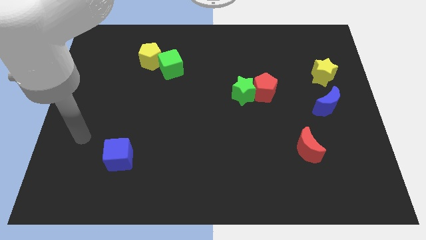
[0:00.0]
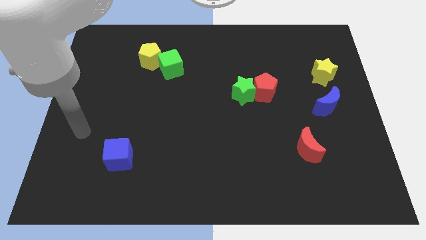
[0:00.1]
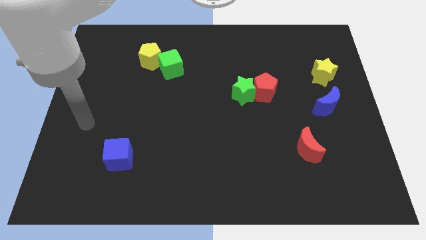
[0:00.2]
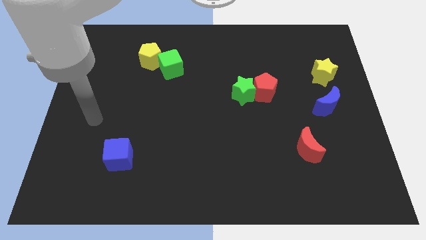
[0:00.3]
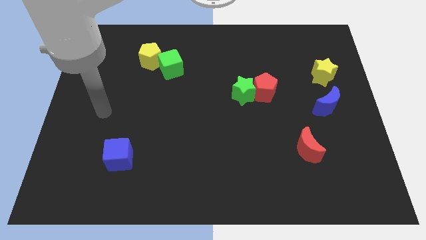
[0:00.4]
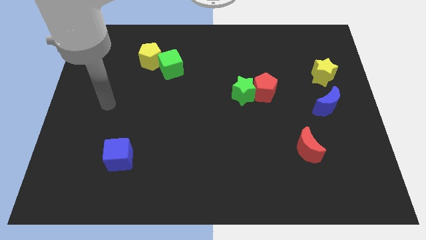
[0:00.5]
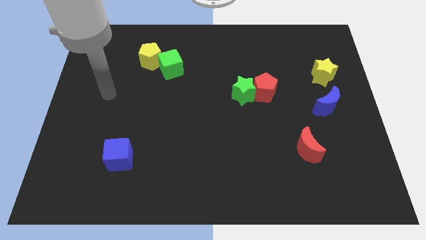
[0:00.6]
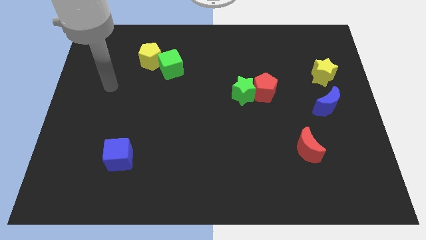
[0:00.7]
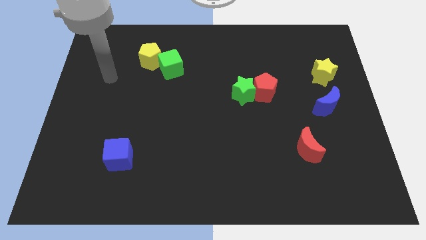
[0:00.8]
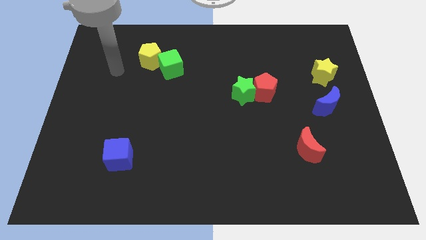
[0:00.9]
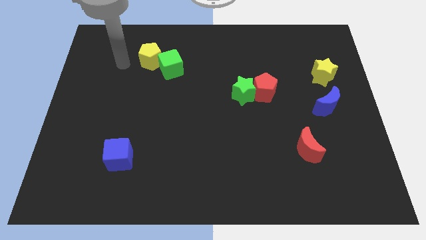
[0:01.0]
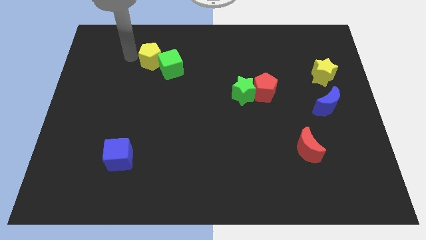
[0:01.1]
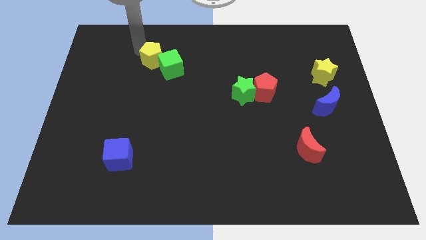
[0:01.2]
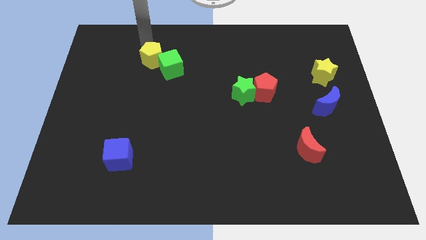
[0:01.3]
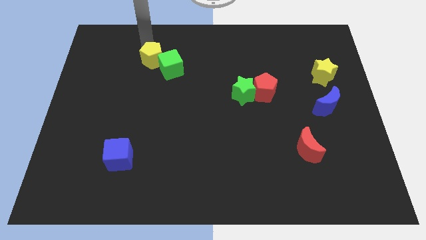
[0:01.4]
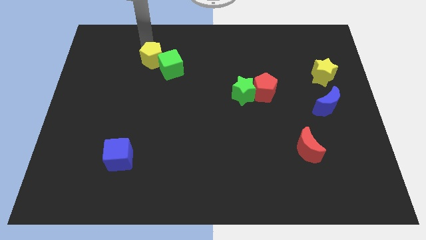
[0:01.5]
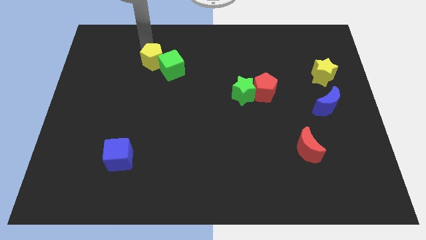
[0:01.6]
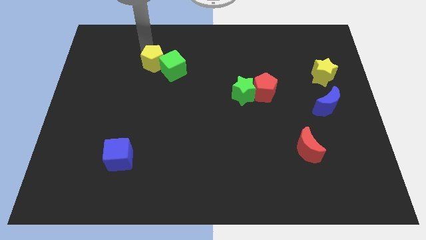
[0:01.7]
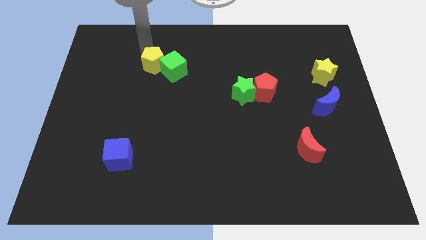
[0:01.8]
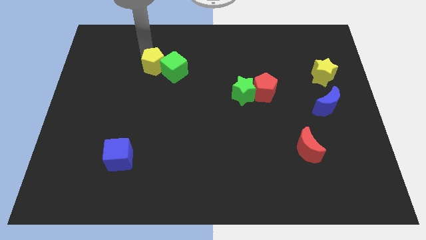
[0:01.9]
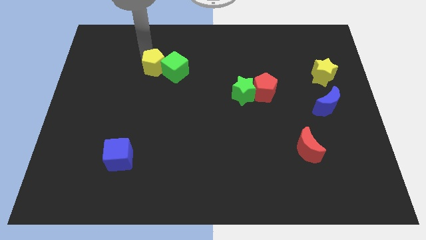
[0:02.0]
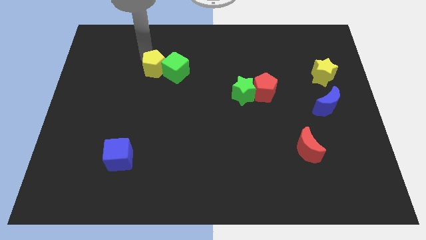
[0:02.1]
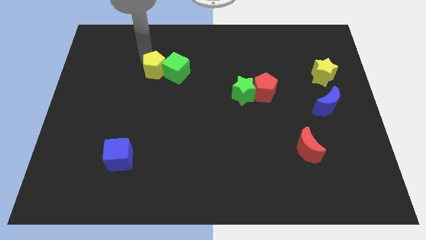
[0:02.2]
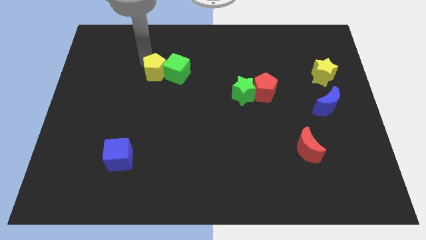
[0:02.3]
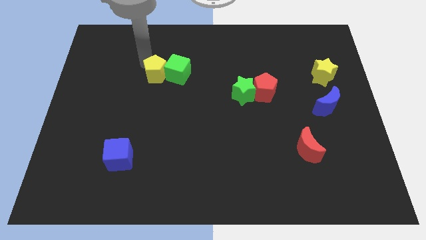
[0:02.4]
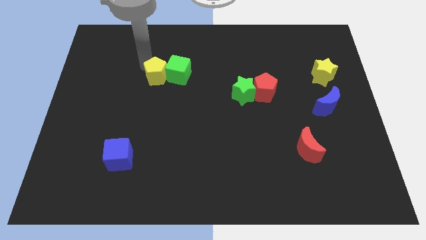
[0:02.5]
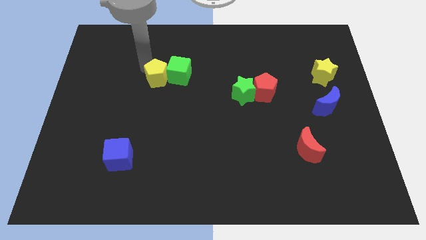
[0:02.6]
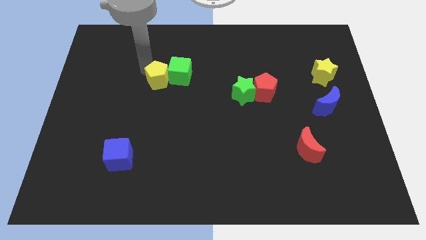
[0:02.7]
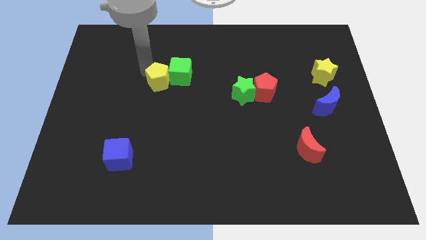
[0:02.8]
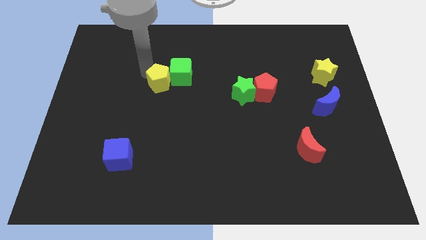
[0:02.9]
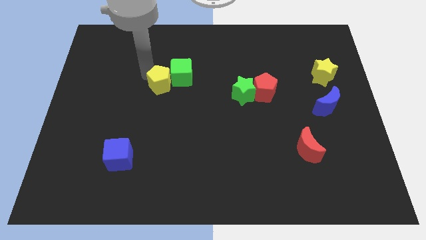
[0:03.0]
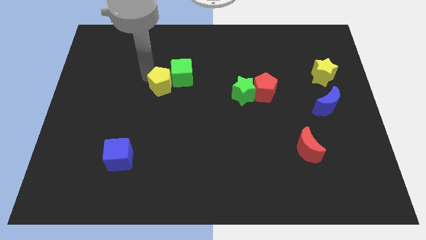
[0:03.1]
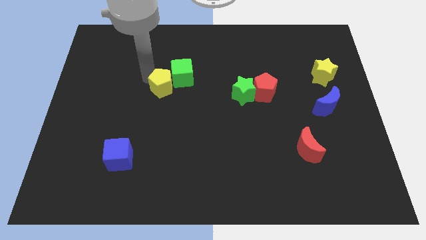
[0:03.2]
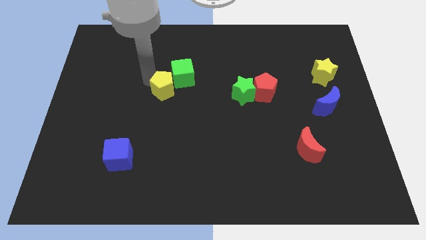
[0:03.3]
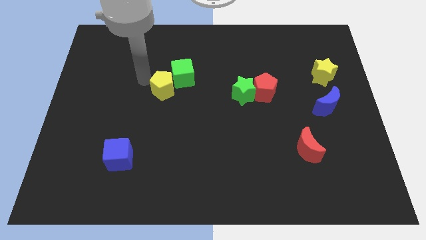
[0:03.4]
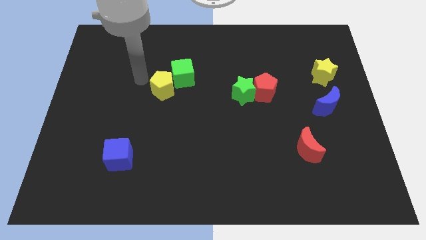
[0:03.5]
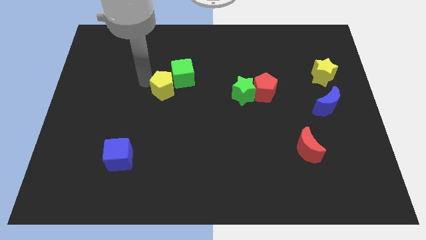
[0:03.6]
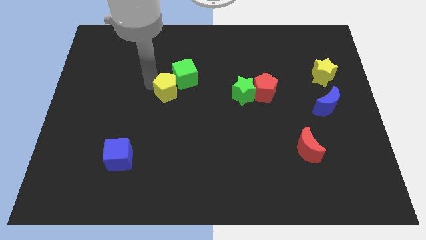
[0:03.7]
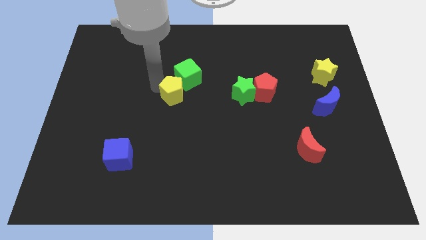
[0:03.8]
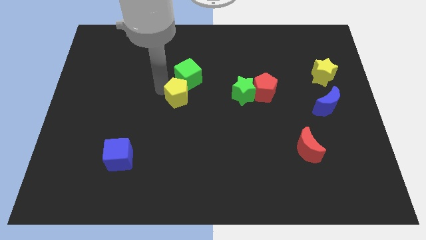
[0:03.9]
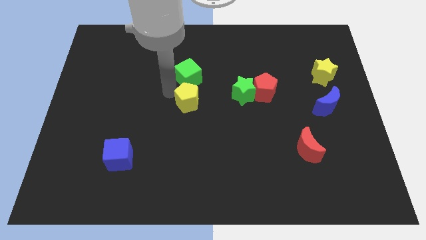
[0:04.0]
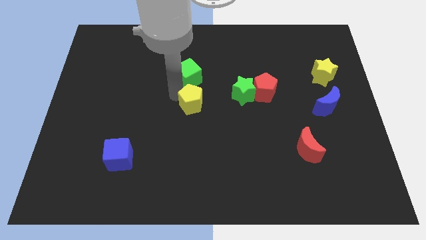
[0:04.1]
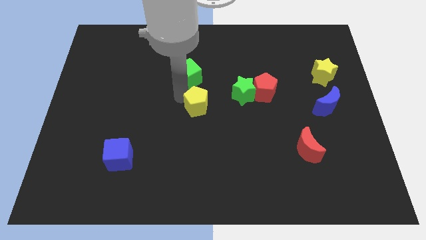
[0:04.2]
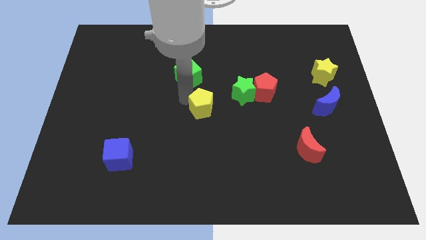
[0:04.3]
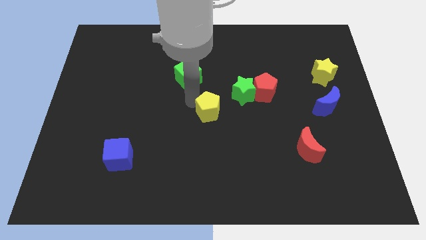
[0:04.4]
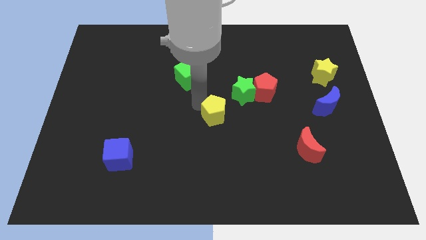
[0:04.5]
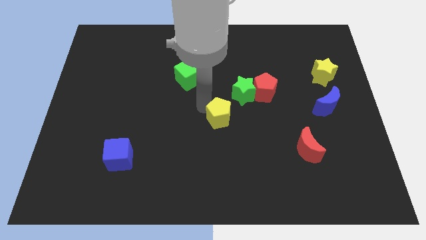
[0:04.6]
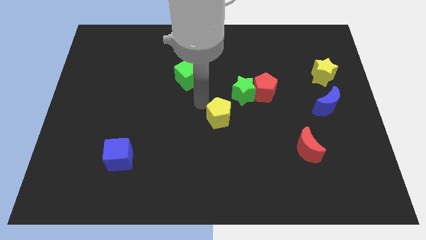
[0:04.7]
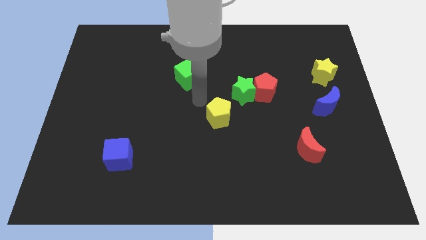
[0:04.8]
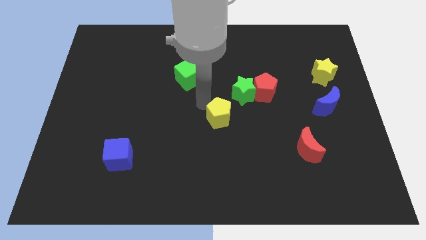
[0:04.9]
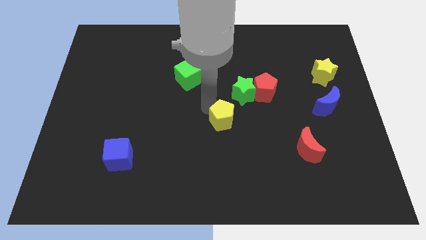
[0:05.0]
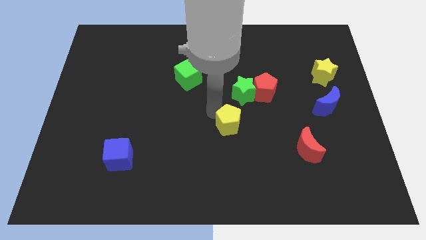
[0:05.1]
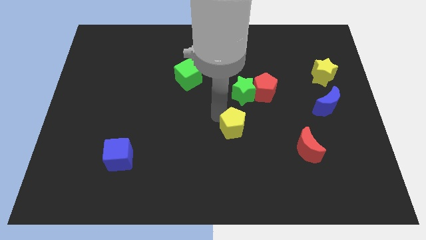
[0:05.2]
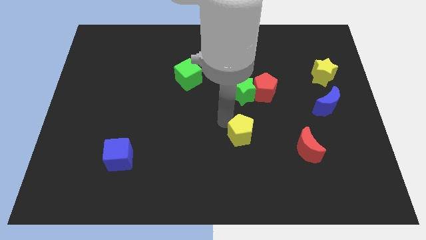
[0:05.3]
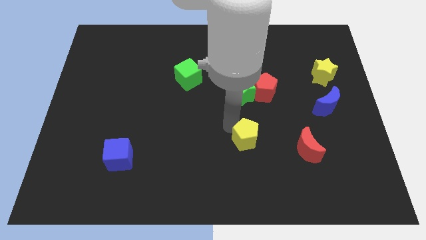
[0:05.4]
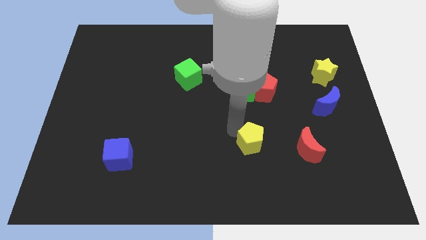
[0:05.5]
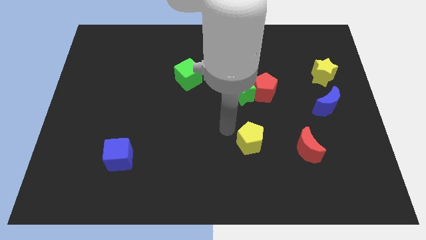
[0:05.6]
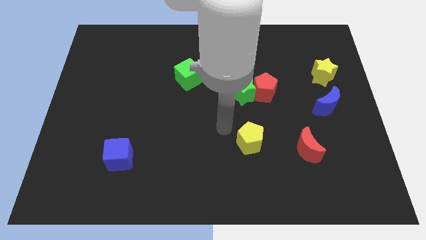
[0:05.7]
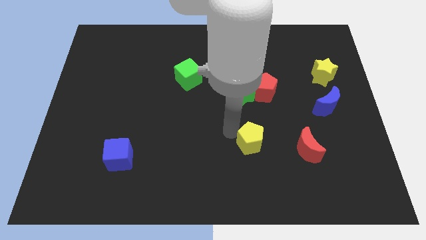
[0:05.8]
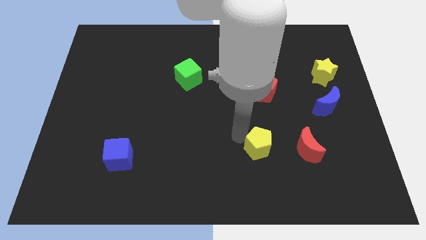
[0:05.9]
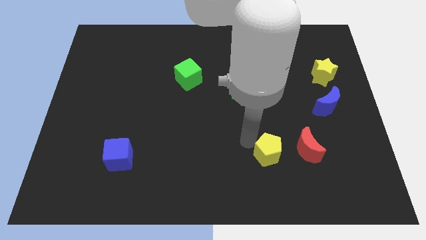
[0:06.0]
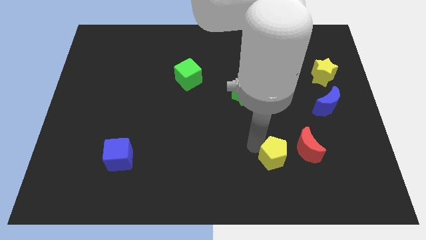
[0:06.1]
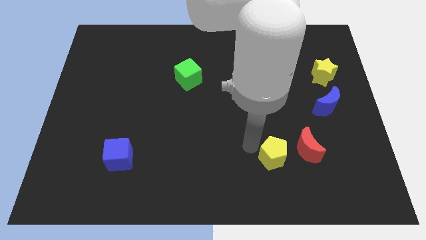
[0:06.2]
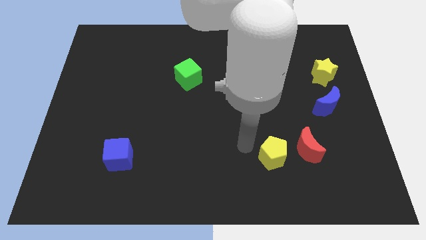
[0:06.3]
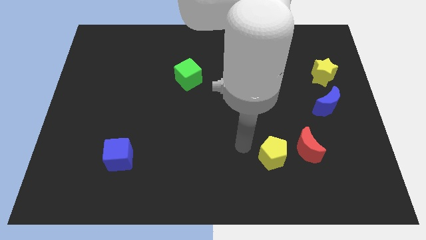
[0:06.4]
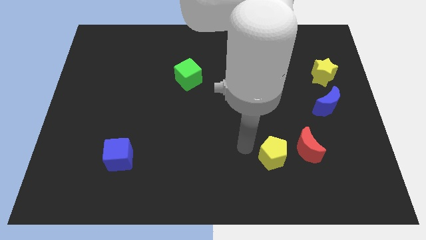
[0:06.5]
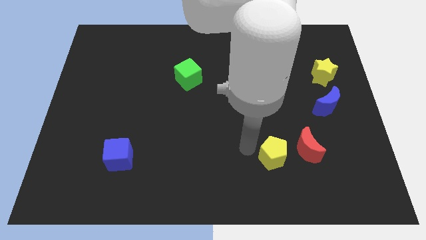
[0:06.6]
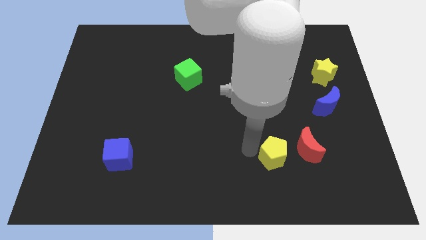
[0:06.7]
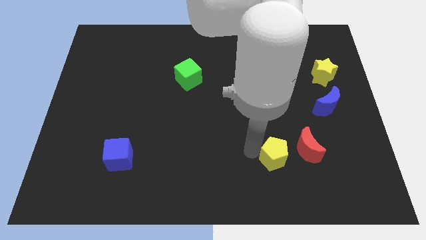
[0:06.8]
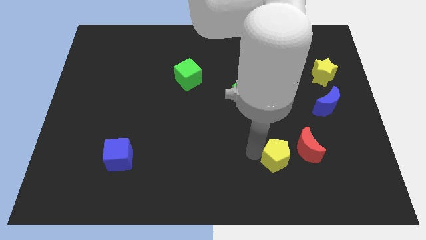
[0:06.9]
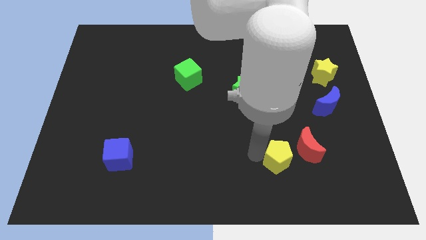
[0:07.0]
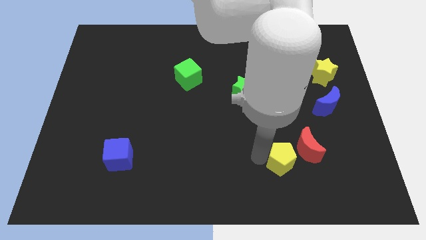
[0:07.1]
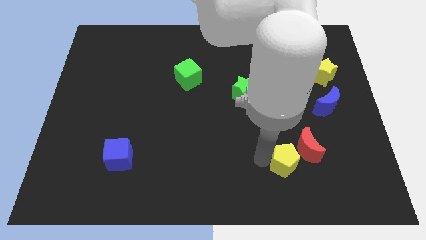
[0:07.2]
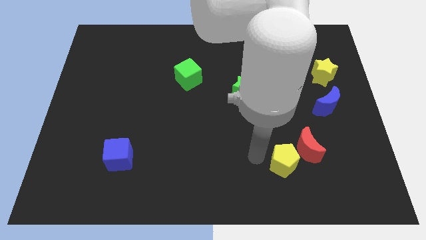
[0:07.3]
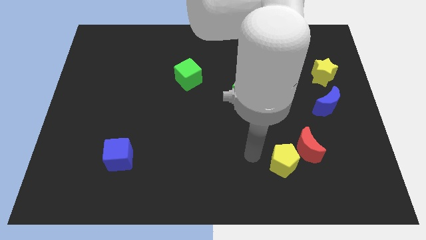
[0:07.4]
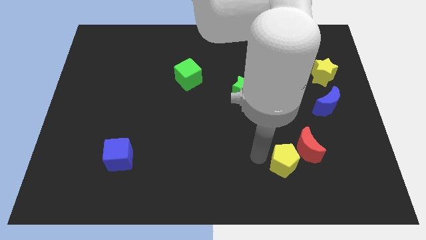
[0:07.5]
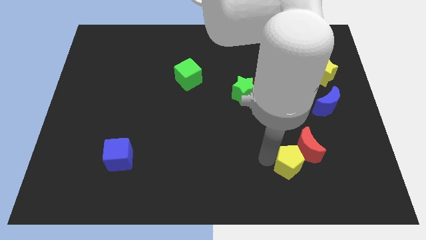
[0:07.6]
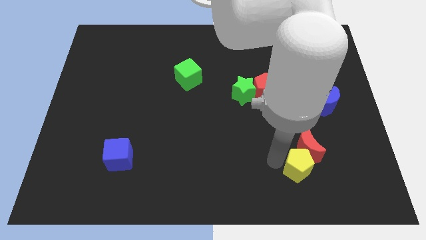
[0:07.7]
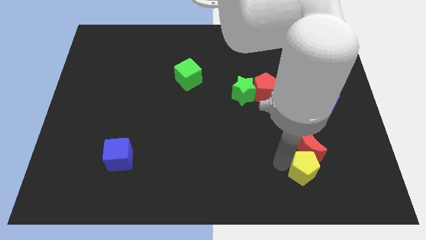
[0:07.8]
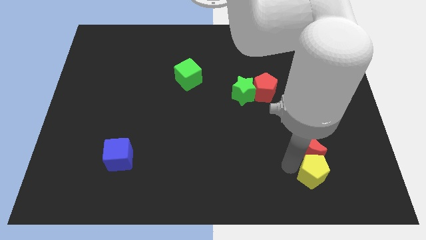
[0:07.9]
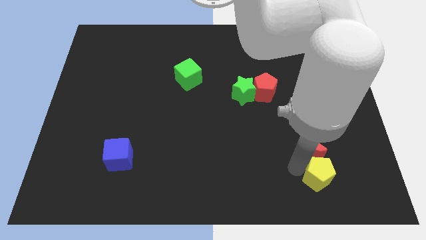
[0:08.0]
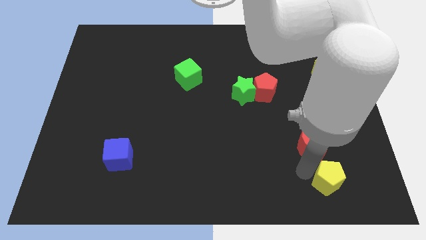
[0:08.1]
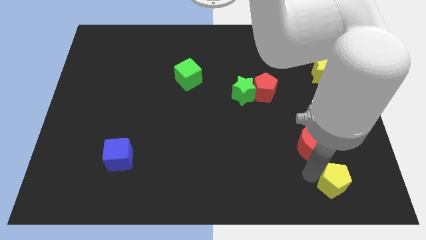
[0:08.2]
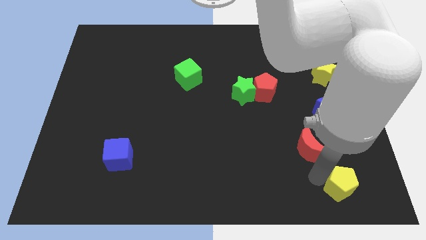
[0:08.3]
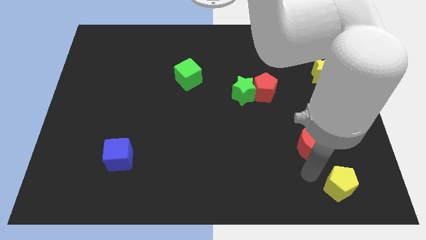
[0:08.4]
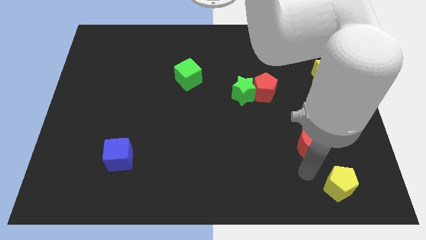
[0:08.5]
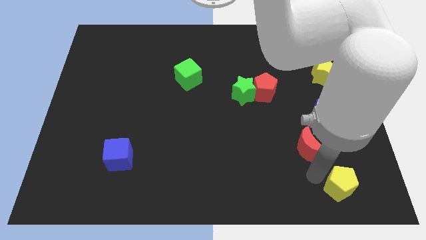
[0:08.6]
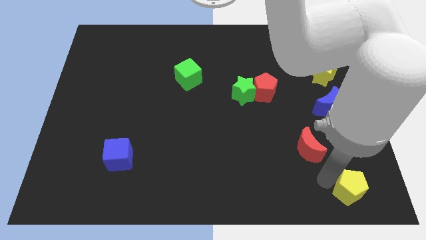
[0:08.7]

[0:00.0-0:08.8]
move the yellow pentagon to the bottom right
